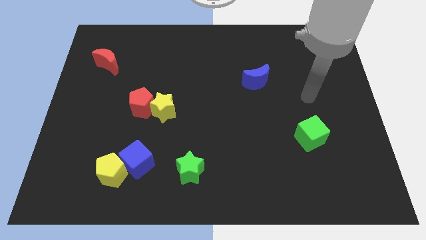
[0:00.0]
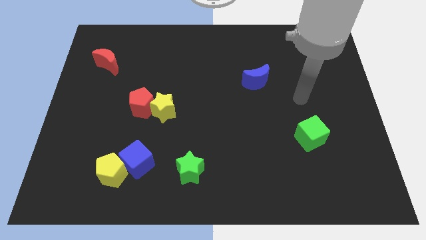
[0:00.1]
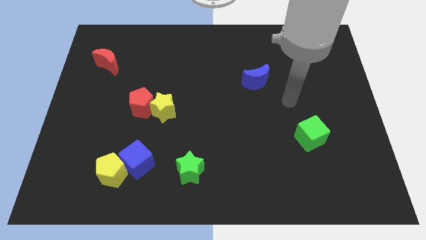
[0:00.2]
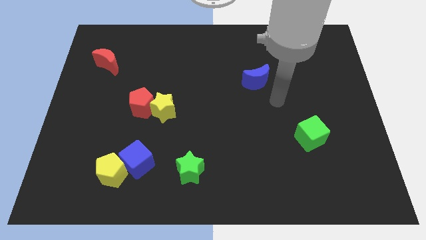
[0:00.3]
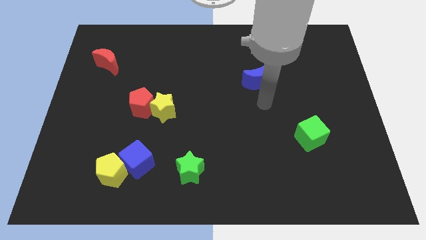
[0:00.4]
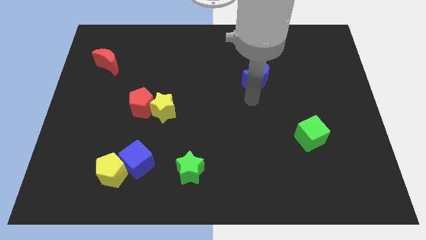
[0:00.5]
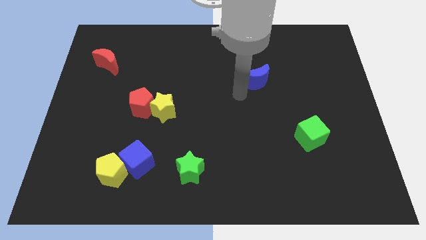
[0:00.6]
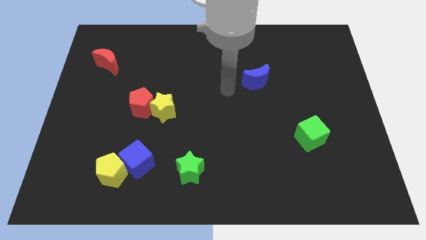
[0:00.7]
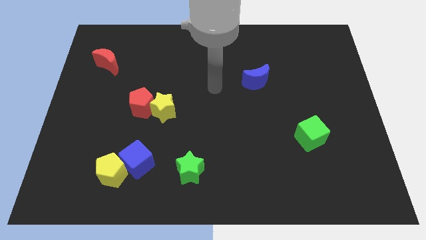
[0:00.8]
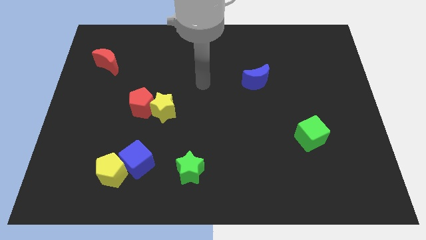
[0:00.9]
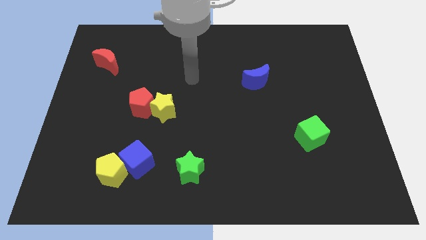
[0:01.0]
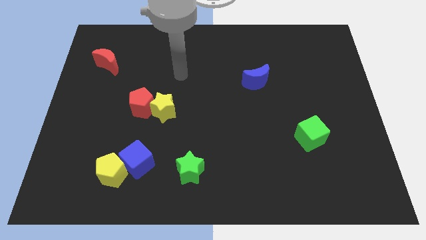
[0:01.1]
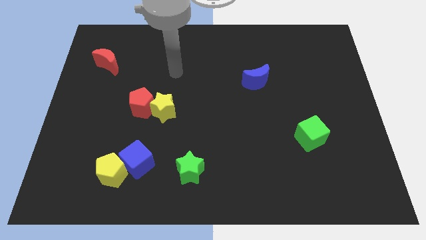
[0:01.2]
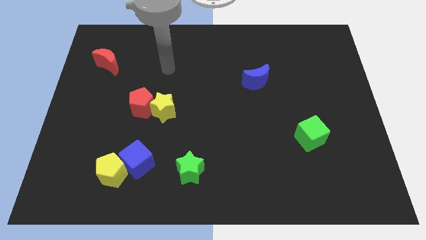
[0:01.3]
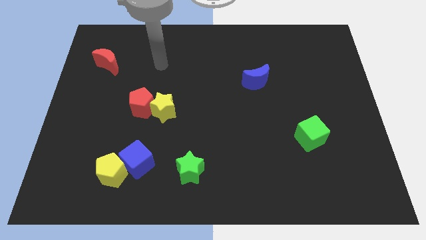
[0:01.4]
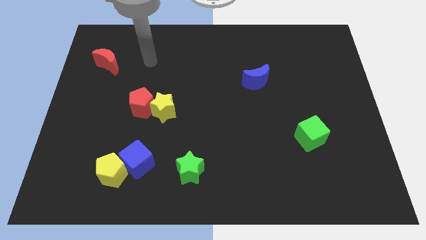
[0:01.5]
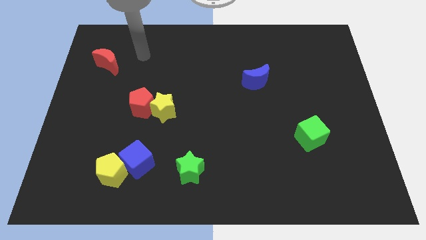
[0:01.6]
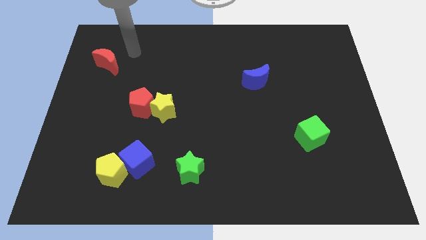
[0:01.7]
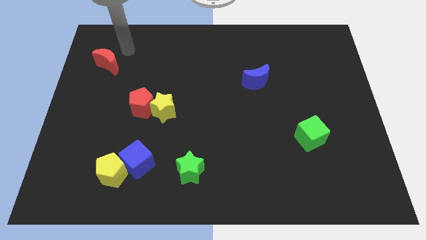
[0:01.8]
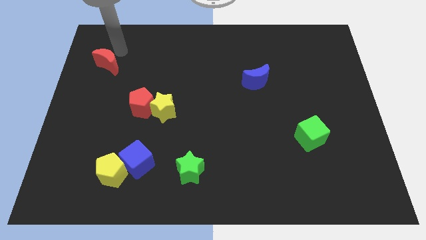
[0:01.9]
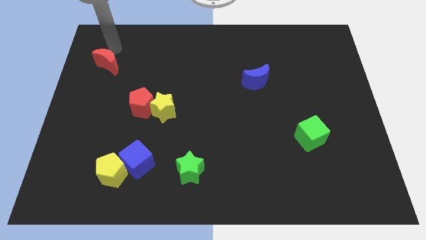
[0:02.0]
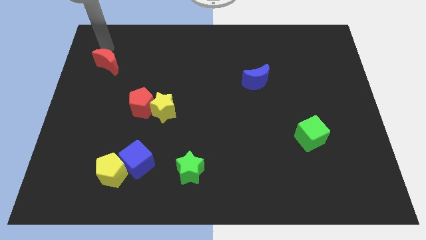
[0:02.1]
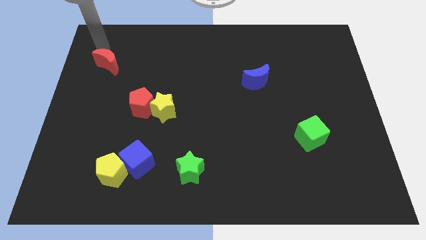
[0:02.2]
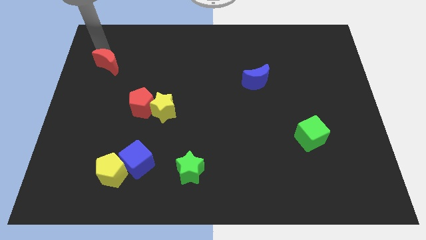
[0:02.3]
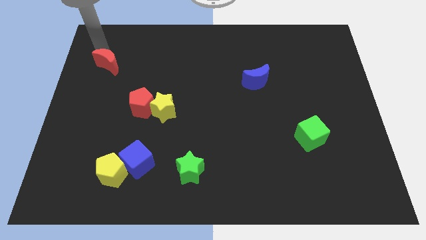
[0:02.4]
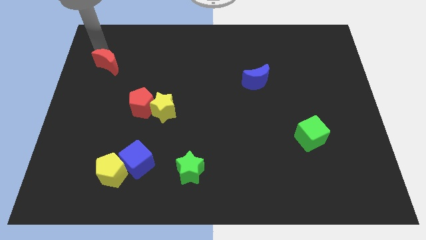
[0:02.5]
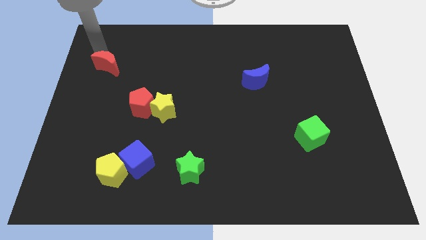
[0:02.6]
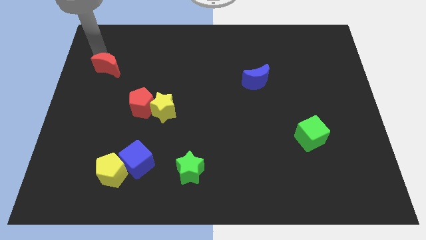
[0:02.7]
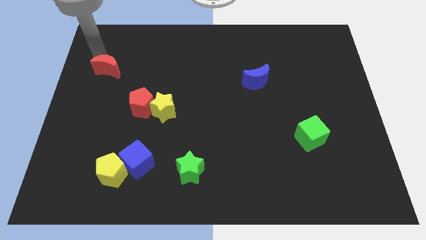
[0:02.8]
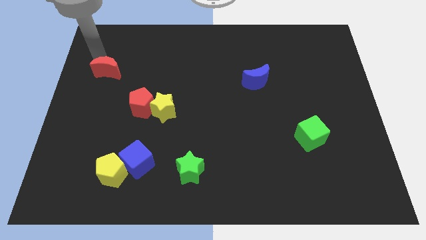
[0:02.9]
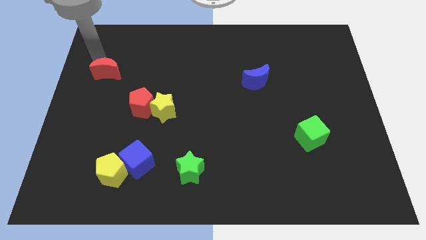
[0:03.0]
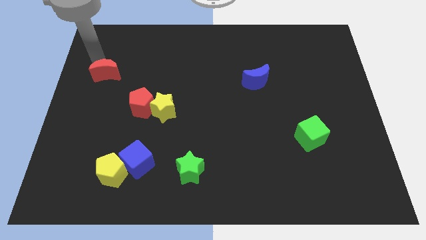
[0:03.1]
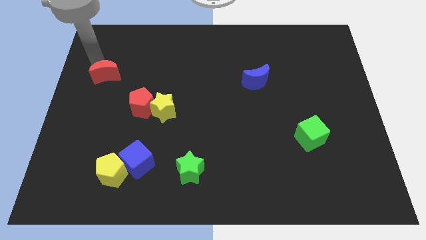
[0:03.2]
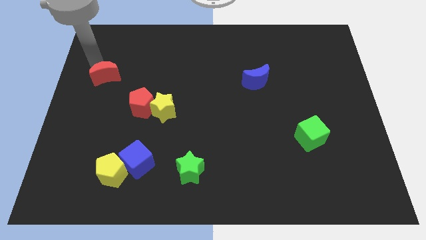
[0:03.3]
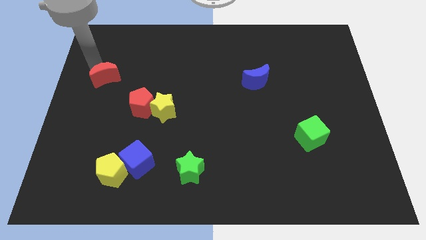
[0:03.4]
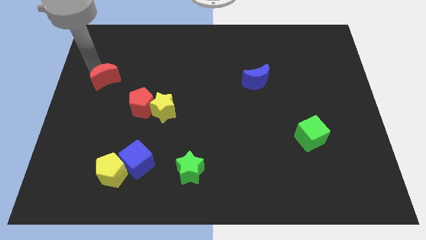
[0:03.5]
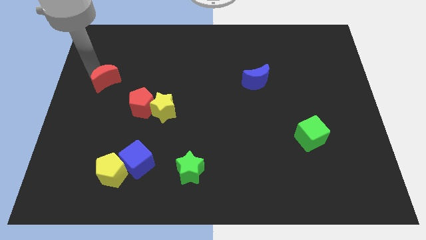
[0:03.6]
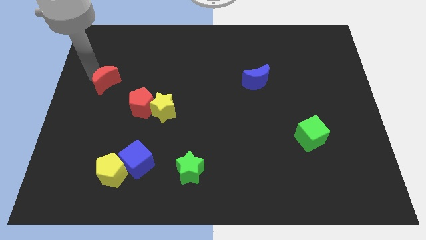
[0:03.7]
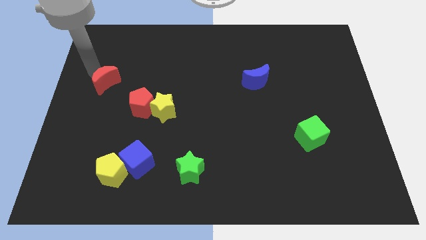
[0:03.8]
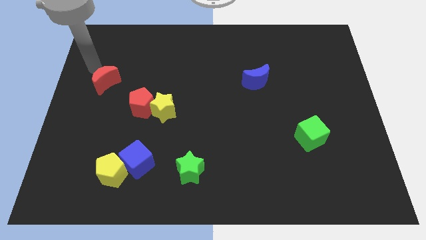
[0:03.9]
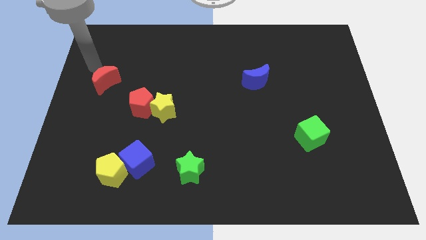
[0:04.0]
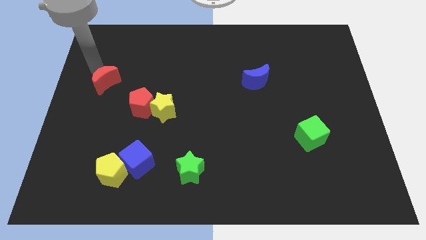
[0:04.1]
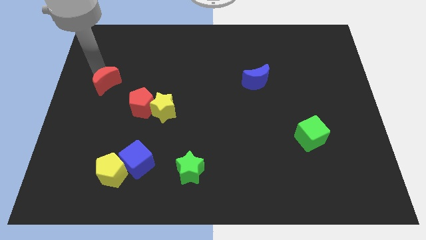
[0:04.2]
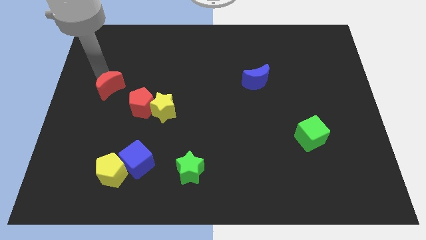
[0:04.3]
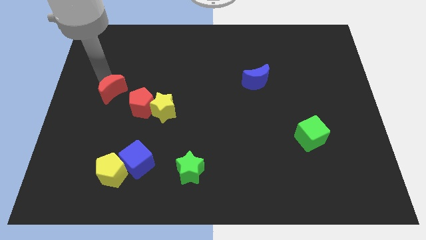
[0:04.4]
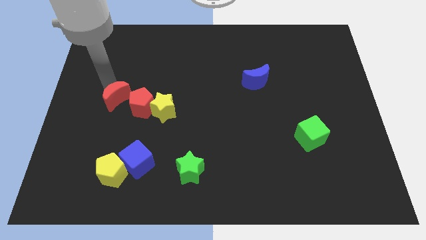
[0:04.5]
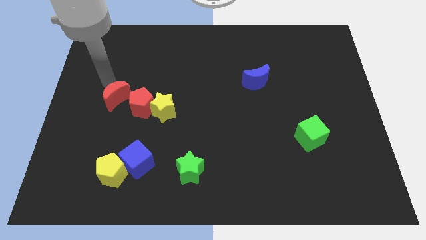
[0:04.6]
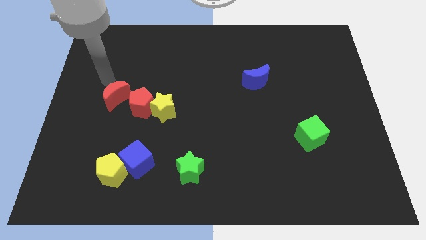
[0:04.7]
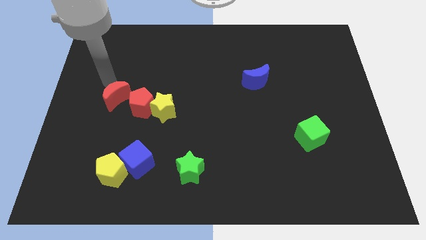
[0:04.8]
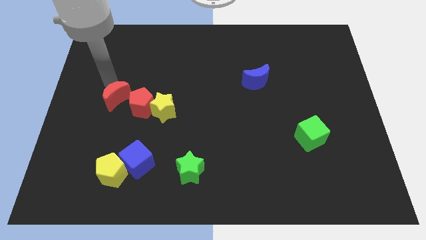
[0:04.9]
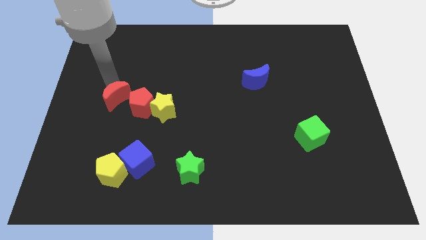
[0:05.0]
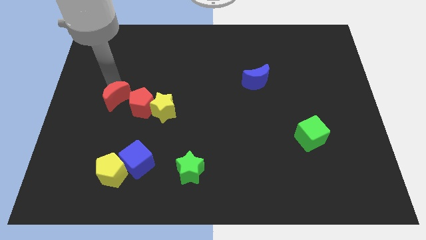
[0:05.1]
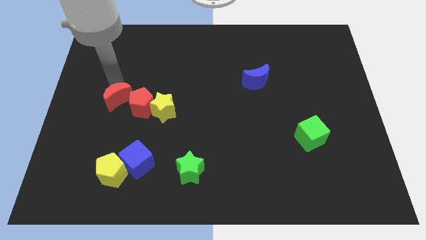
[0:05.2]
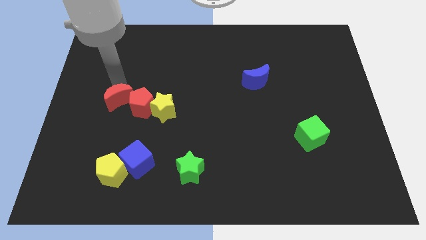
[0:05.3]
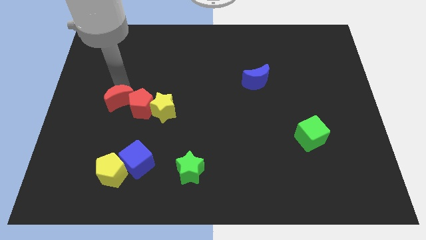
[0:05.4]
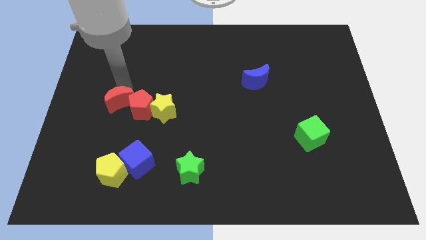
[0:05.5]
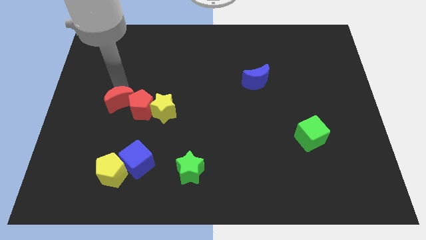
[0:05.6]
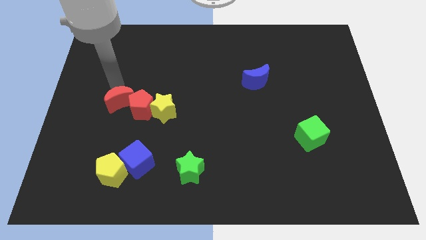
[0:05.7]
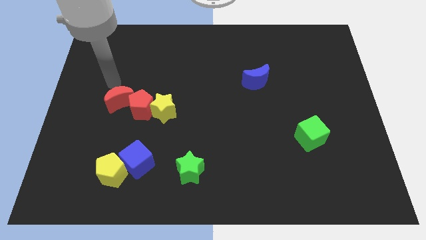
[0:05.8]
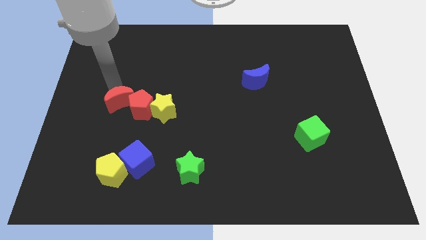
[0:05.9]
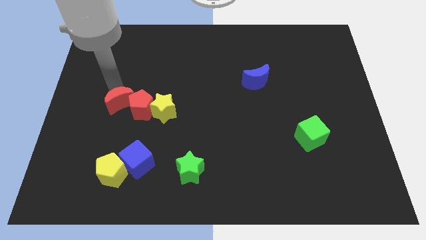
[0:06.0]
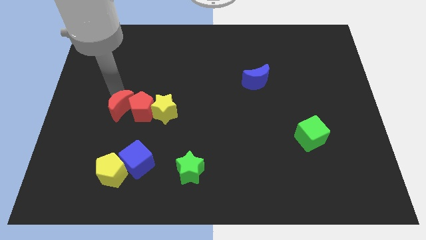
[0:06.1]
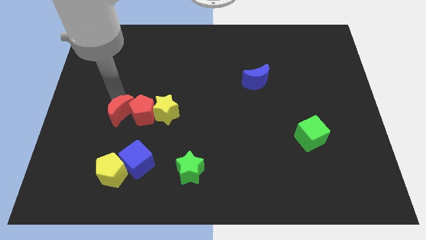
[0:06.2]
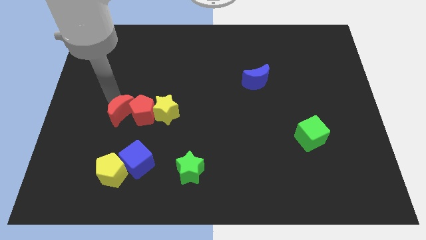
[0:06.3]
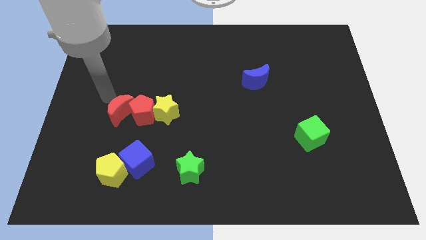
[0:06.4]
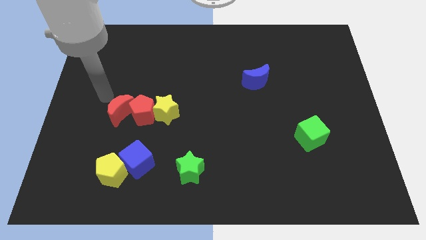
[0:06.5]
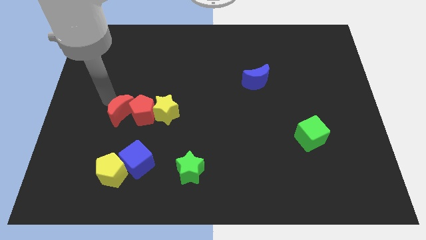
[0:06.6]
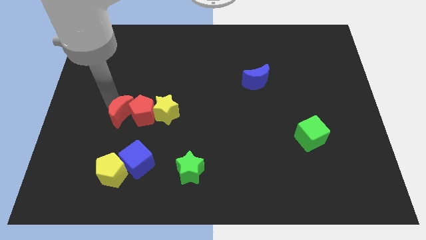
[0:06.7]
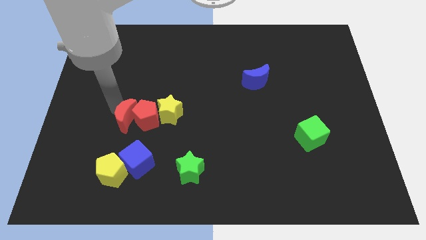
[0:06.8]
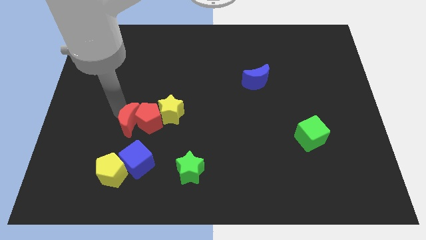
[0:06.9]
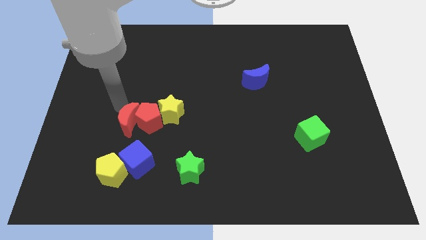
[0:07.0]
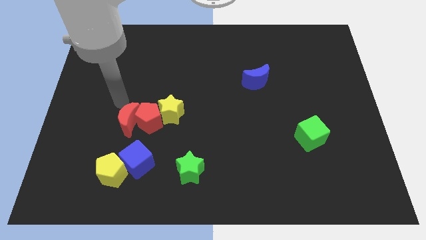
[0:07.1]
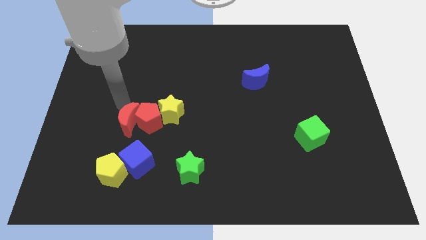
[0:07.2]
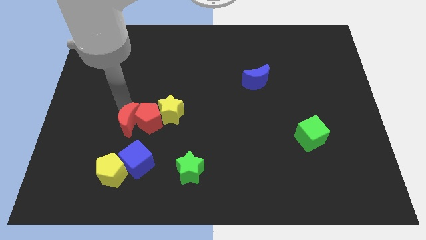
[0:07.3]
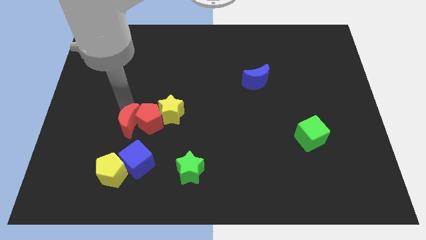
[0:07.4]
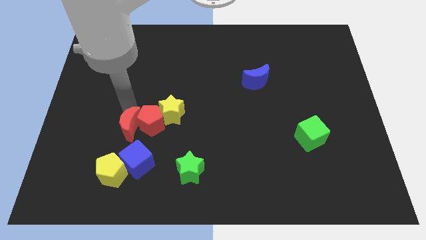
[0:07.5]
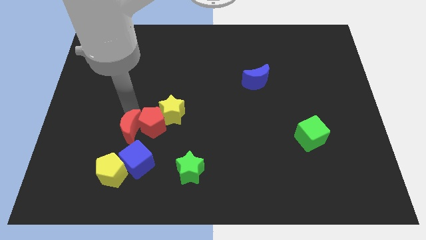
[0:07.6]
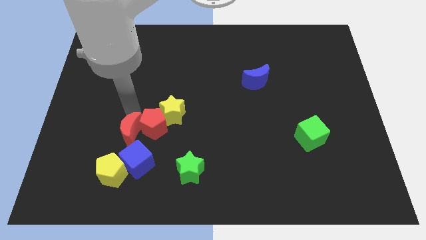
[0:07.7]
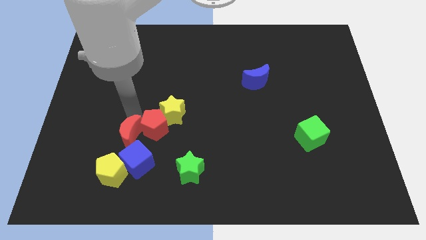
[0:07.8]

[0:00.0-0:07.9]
put the red moon to the top right of the yellow pentagon

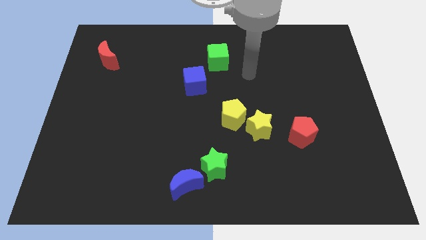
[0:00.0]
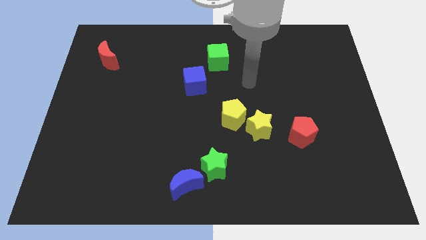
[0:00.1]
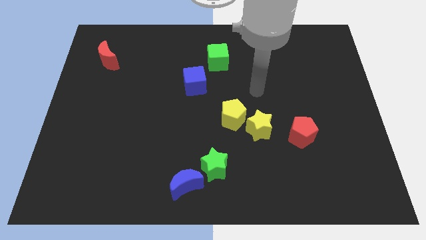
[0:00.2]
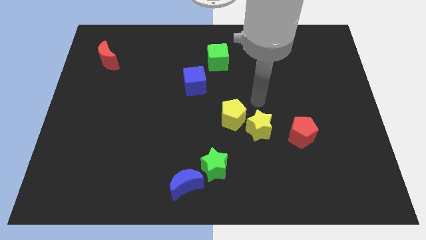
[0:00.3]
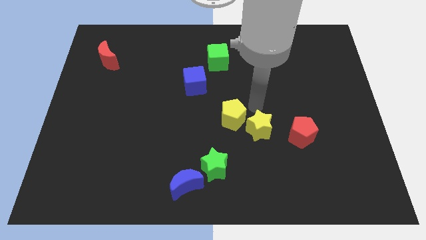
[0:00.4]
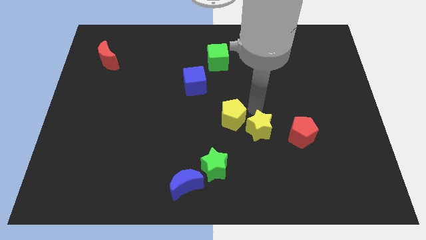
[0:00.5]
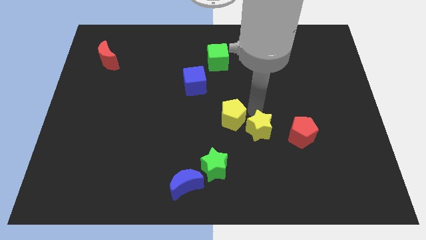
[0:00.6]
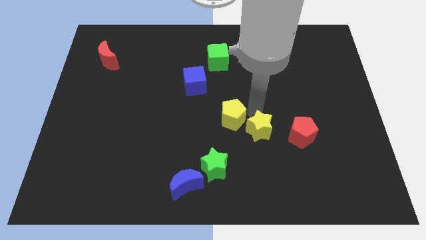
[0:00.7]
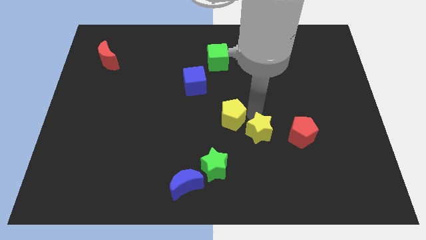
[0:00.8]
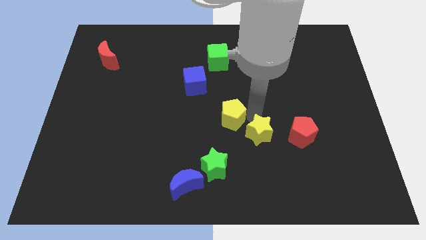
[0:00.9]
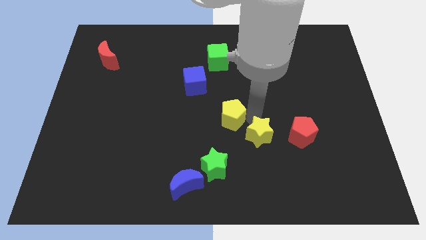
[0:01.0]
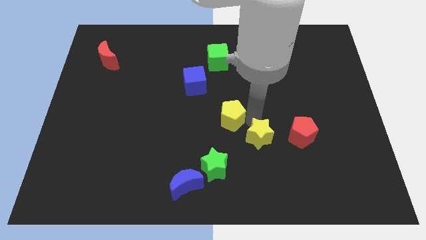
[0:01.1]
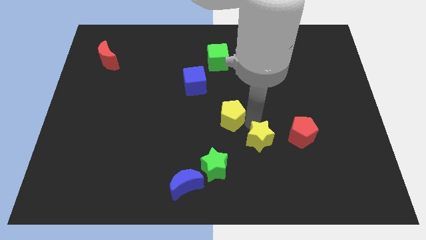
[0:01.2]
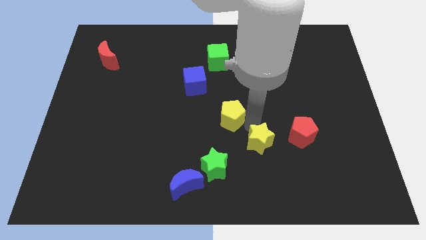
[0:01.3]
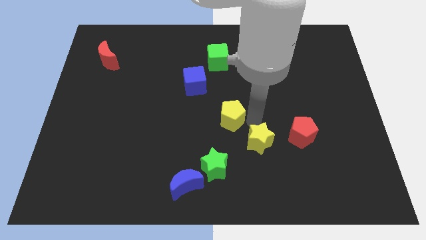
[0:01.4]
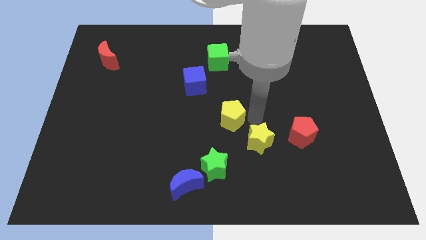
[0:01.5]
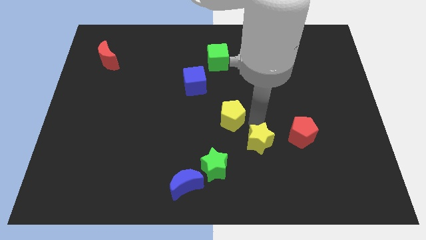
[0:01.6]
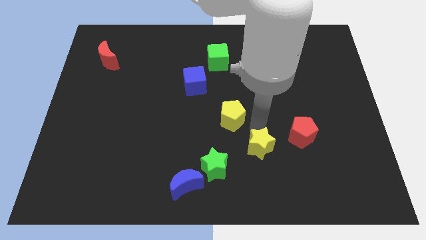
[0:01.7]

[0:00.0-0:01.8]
push the yellow star to the right side of the green star
